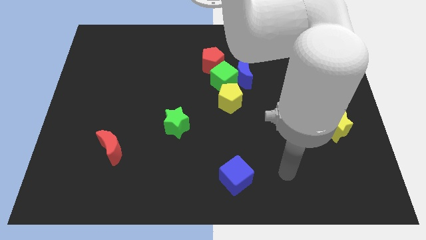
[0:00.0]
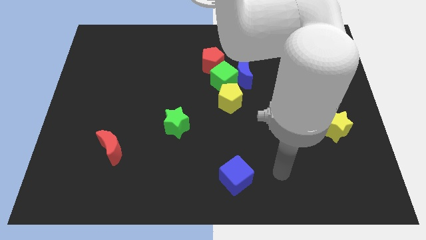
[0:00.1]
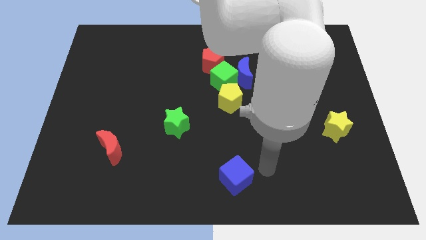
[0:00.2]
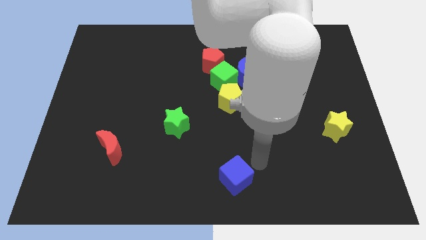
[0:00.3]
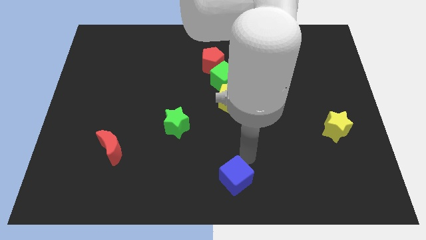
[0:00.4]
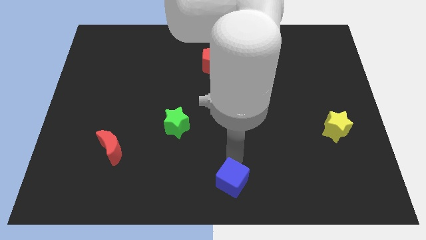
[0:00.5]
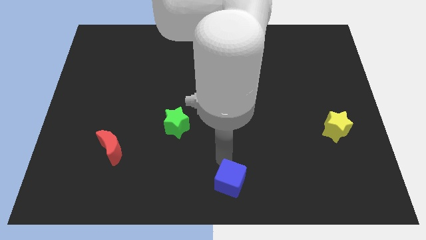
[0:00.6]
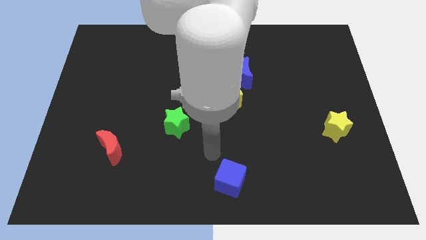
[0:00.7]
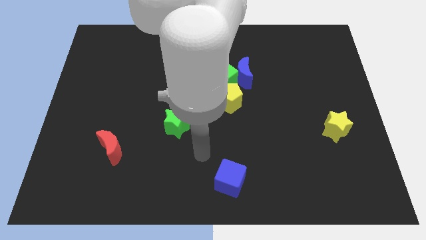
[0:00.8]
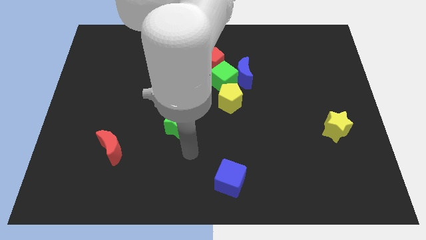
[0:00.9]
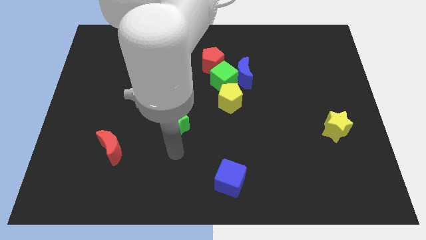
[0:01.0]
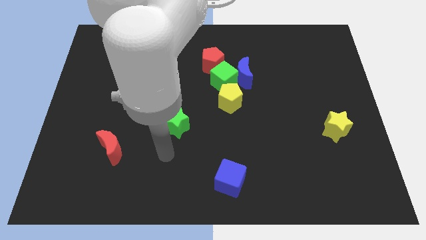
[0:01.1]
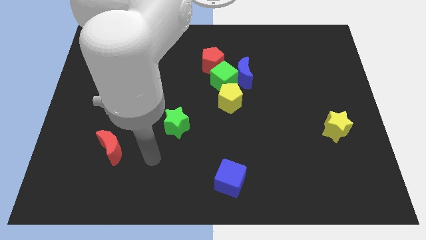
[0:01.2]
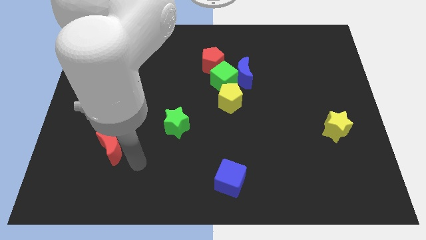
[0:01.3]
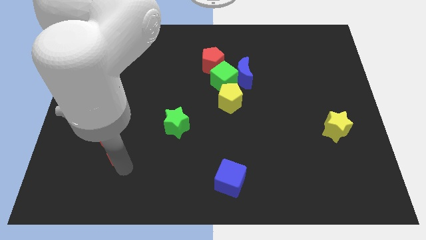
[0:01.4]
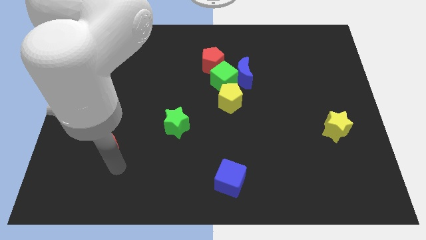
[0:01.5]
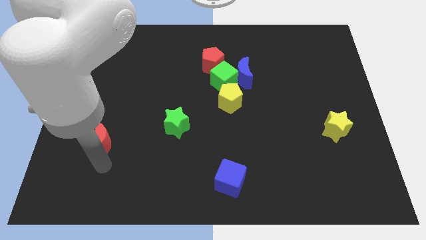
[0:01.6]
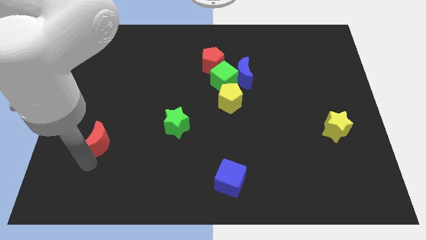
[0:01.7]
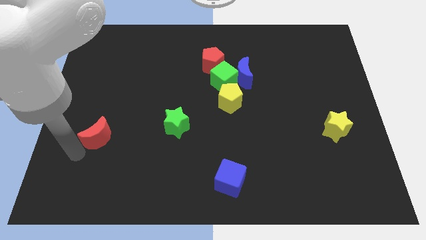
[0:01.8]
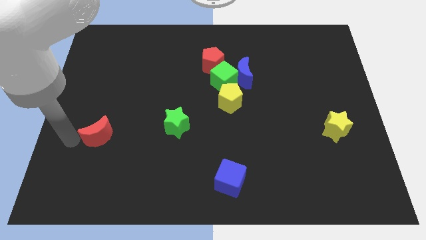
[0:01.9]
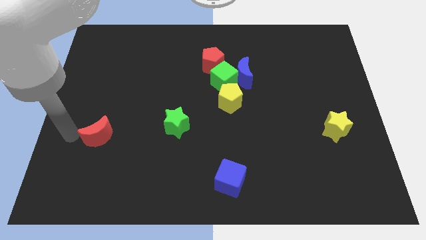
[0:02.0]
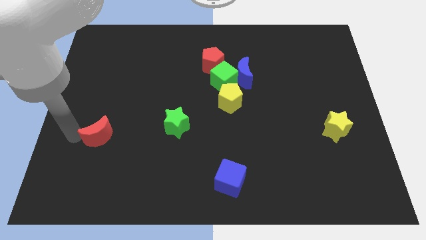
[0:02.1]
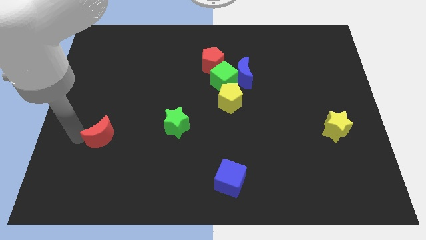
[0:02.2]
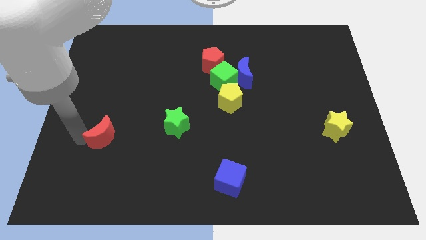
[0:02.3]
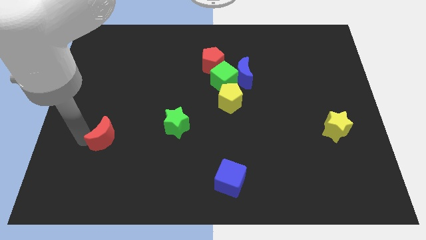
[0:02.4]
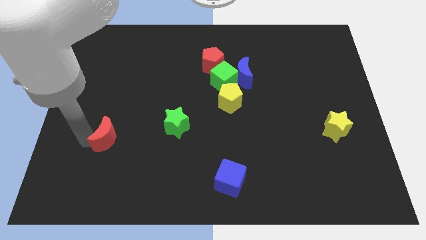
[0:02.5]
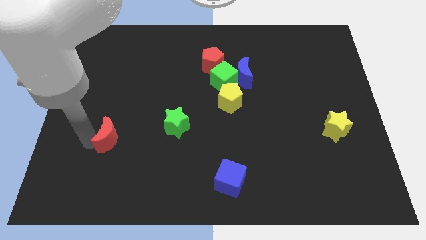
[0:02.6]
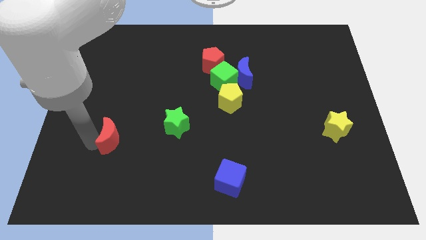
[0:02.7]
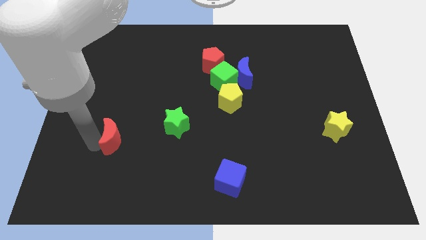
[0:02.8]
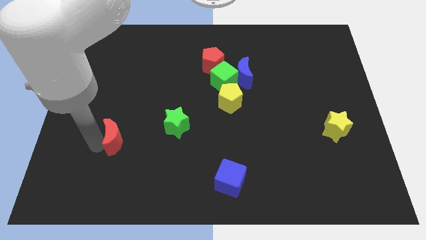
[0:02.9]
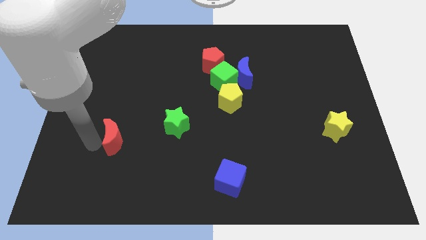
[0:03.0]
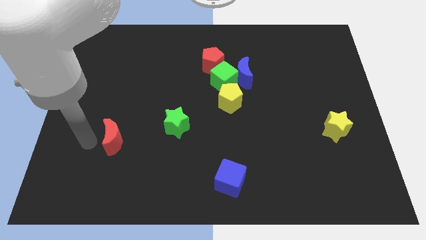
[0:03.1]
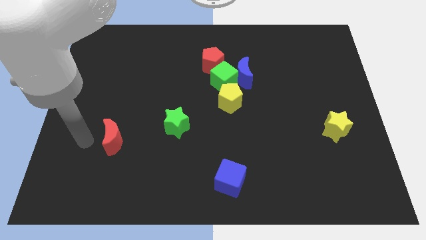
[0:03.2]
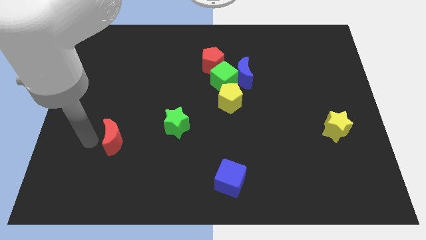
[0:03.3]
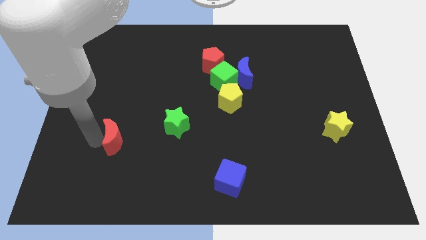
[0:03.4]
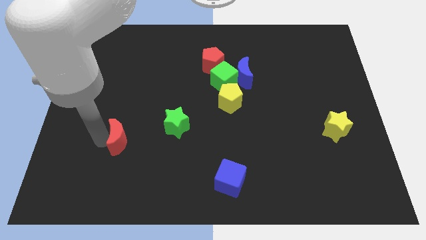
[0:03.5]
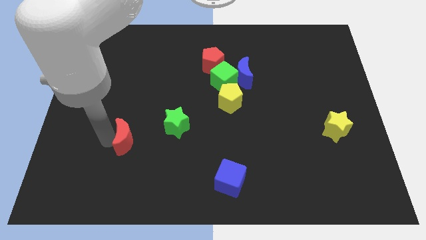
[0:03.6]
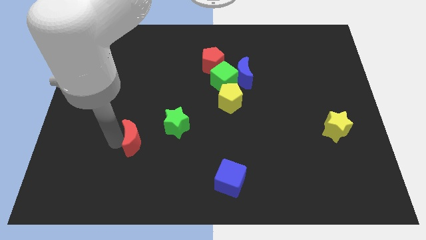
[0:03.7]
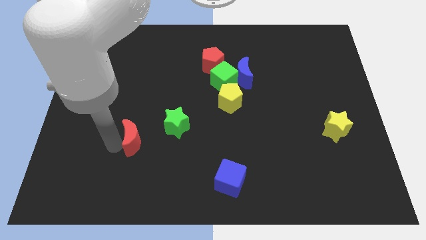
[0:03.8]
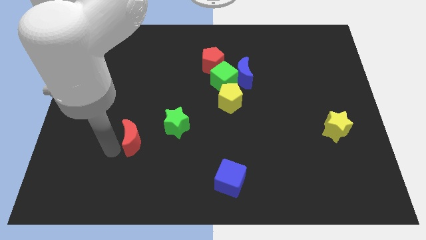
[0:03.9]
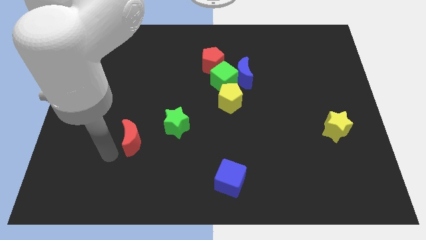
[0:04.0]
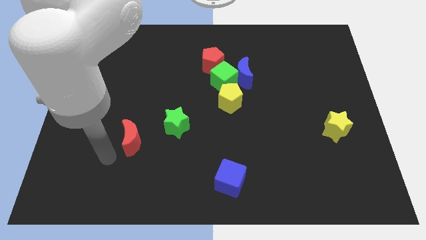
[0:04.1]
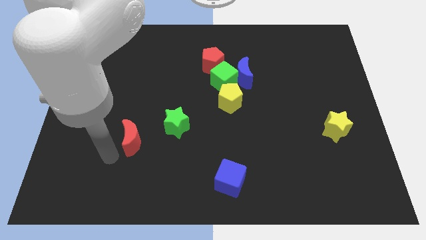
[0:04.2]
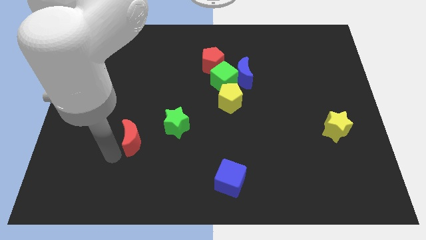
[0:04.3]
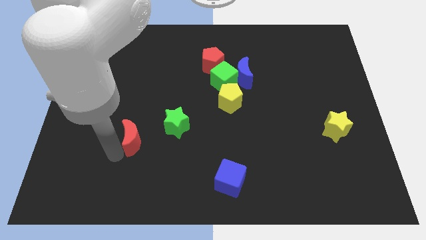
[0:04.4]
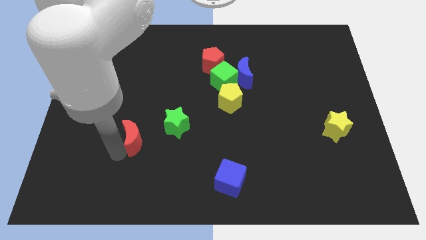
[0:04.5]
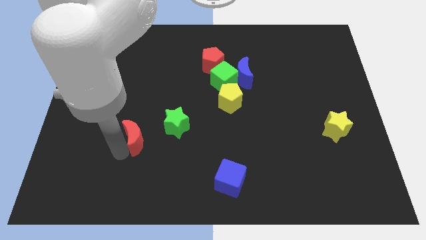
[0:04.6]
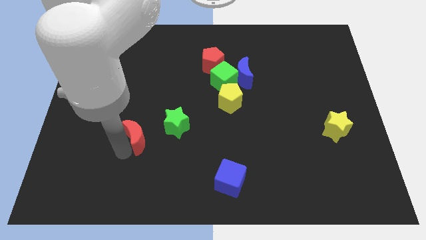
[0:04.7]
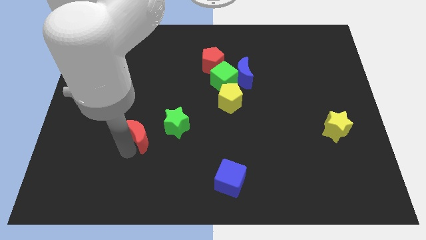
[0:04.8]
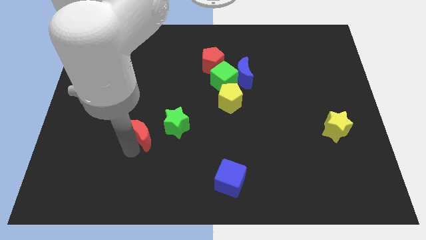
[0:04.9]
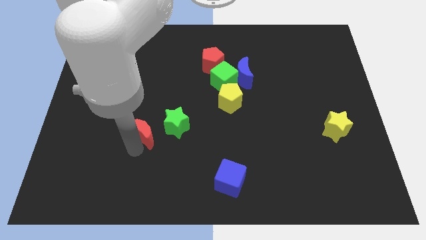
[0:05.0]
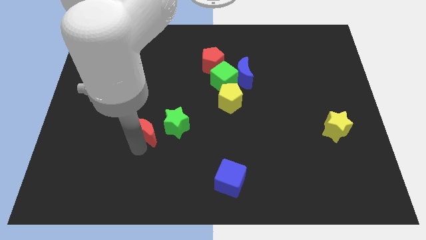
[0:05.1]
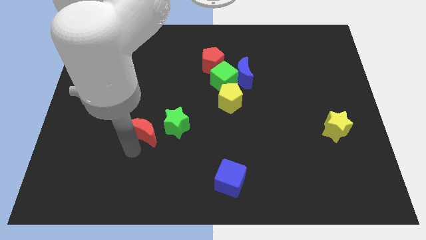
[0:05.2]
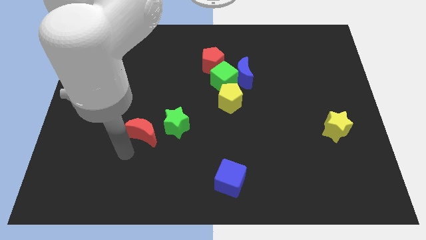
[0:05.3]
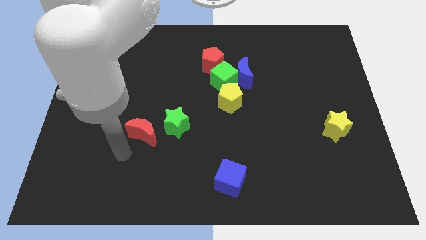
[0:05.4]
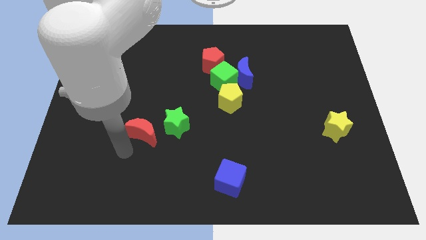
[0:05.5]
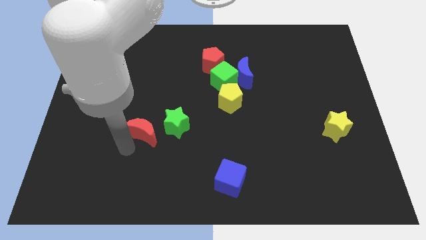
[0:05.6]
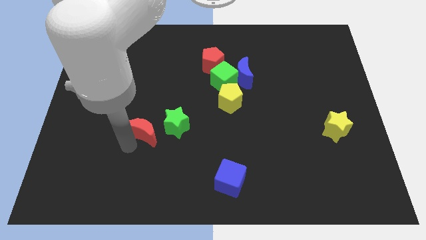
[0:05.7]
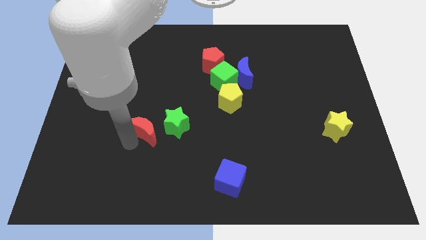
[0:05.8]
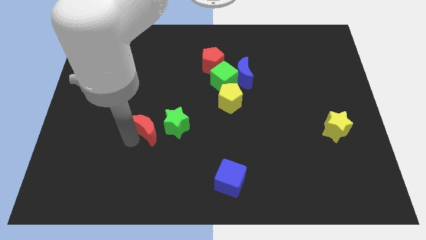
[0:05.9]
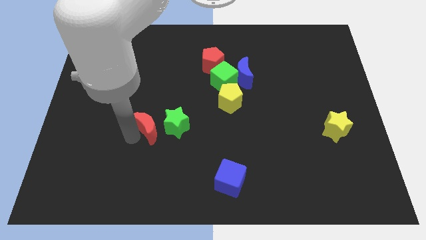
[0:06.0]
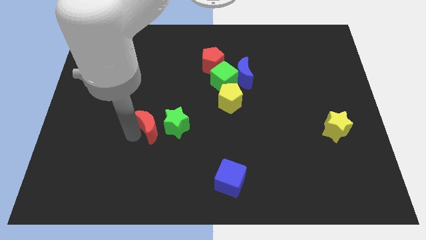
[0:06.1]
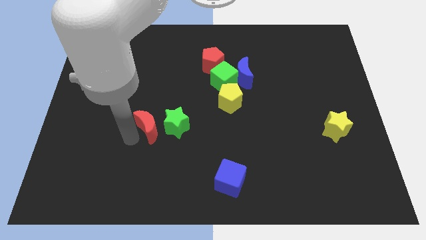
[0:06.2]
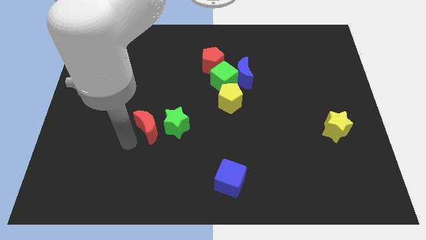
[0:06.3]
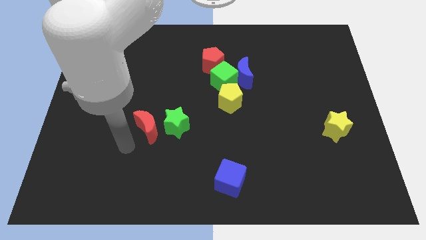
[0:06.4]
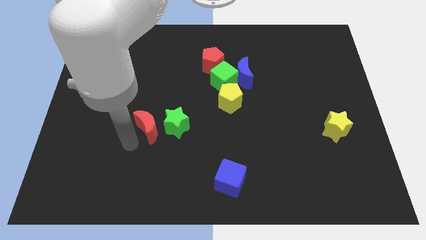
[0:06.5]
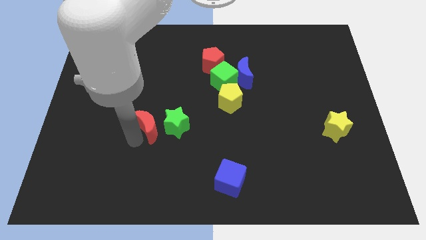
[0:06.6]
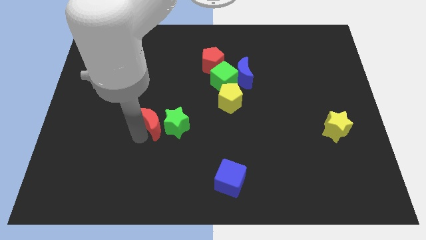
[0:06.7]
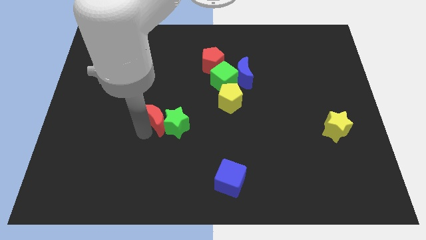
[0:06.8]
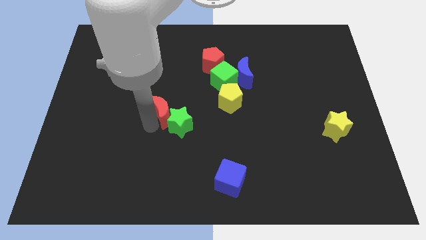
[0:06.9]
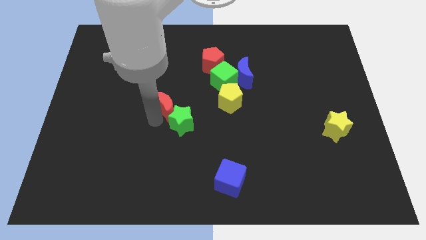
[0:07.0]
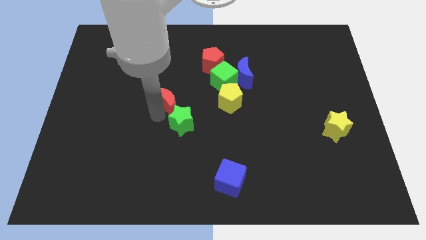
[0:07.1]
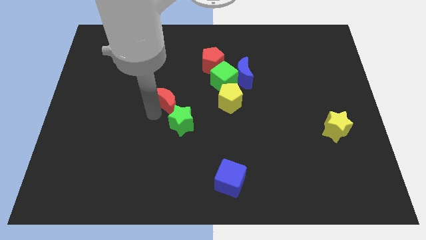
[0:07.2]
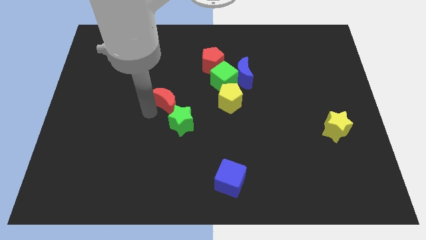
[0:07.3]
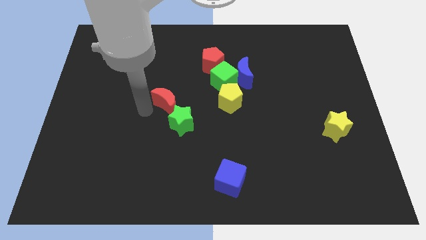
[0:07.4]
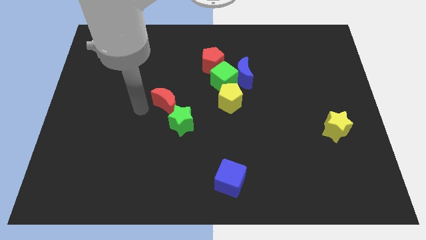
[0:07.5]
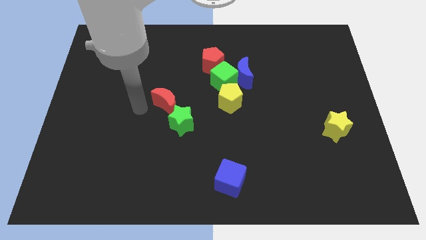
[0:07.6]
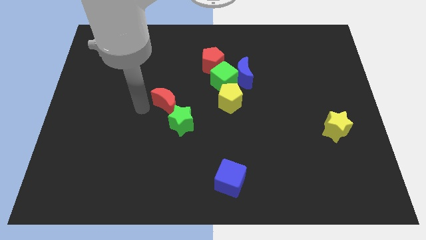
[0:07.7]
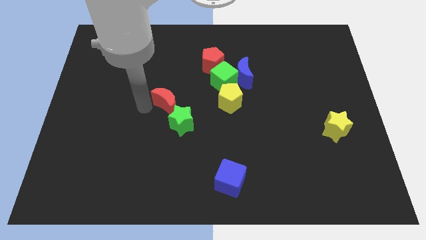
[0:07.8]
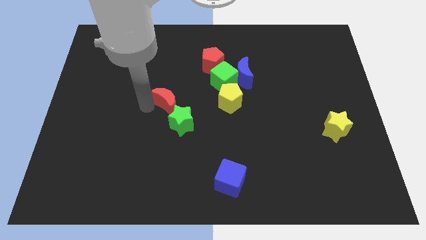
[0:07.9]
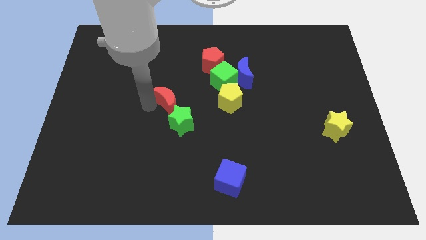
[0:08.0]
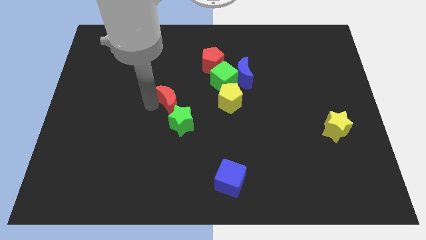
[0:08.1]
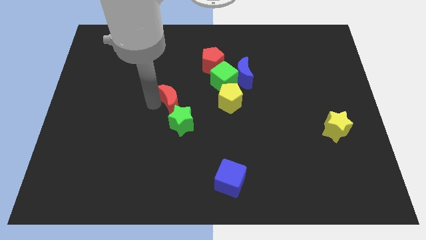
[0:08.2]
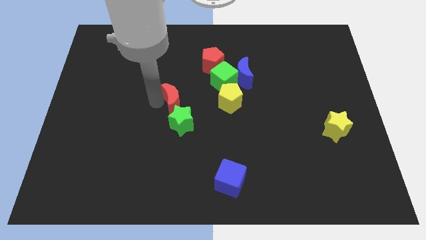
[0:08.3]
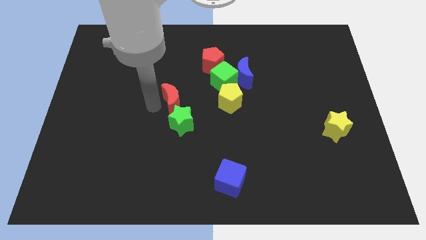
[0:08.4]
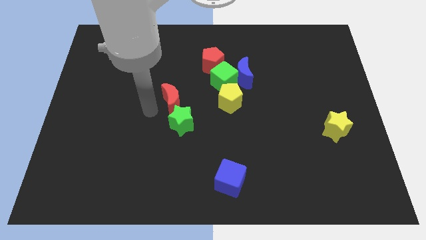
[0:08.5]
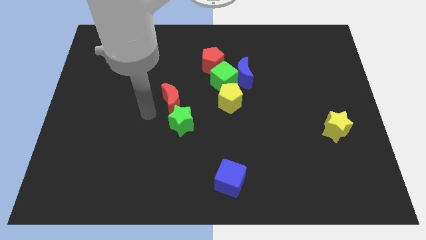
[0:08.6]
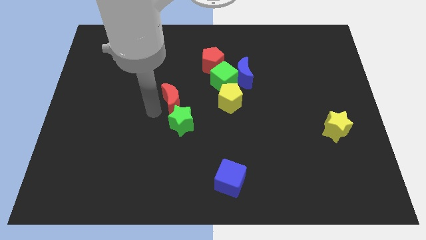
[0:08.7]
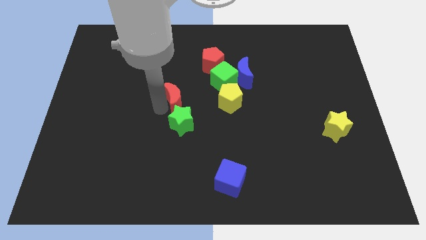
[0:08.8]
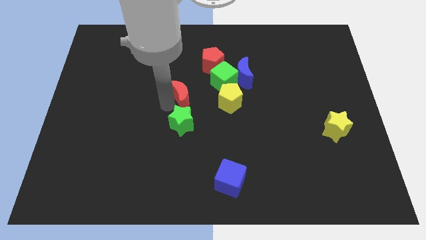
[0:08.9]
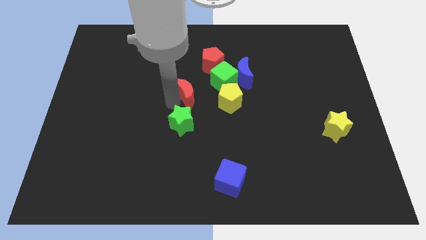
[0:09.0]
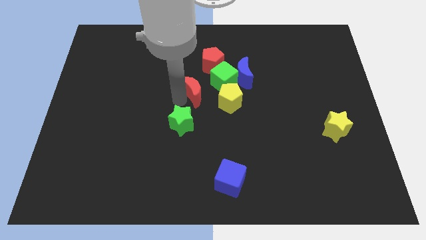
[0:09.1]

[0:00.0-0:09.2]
slide the red moon to the top left side of the yellow pentagon
